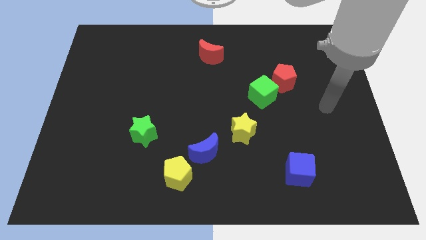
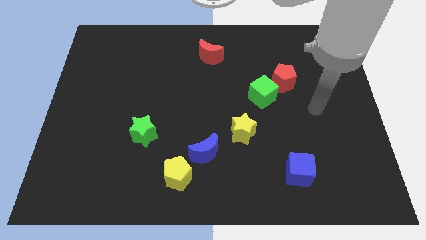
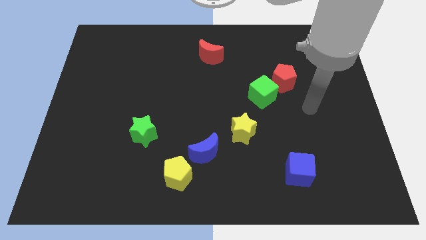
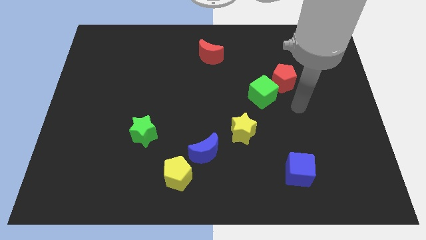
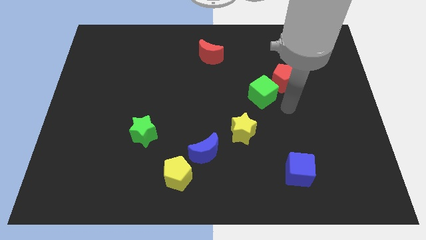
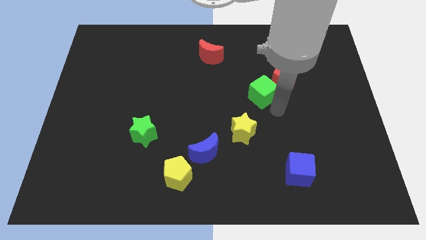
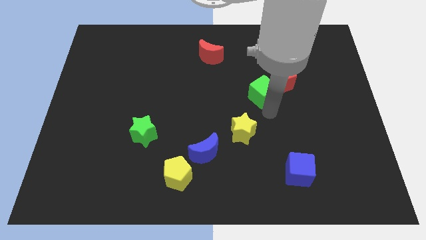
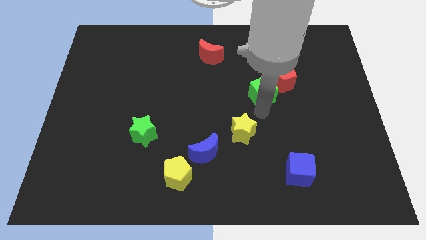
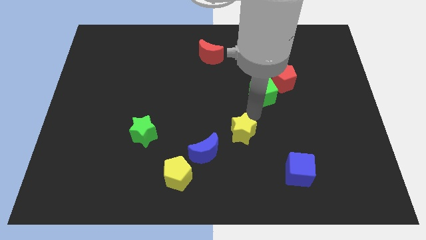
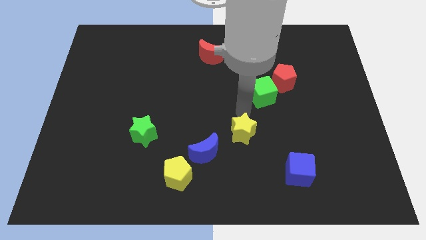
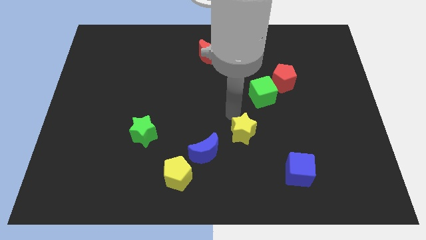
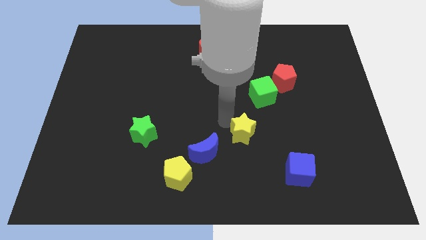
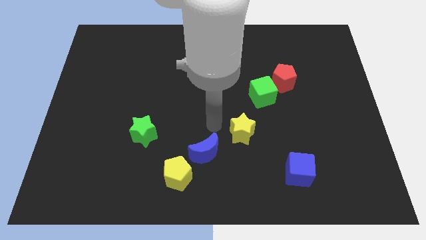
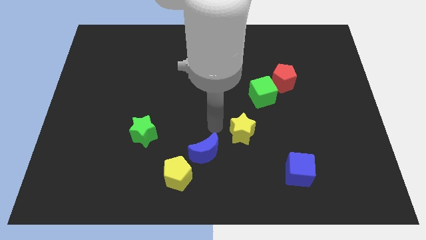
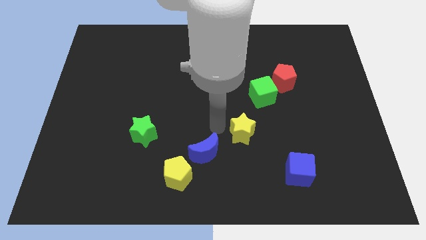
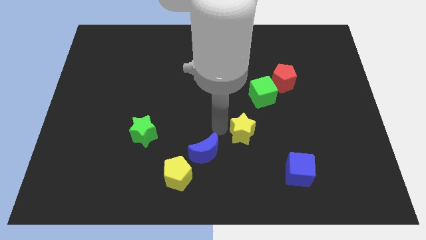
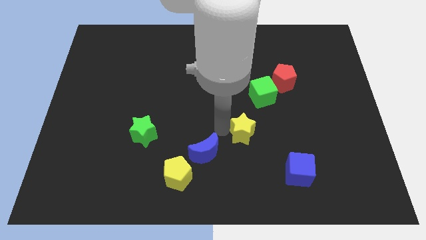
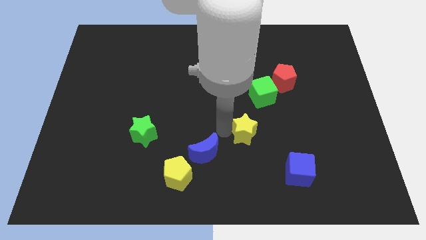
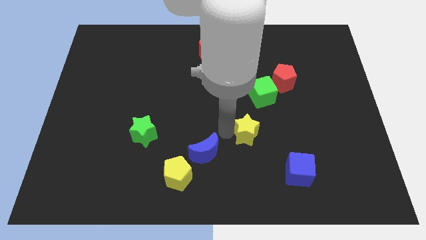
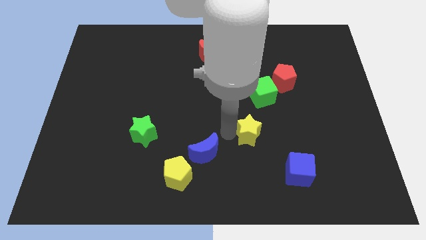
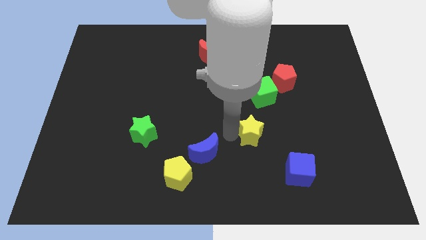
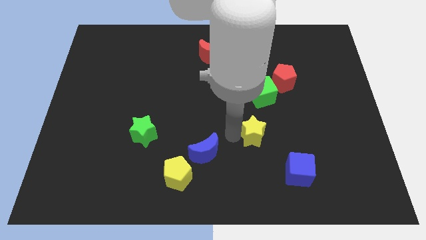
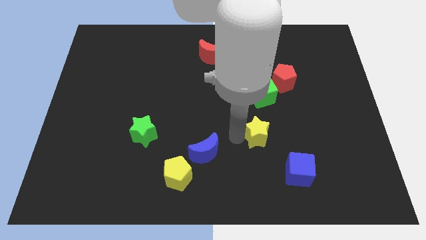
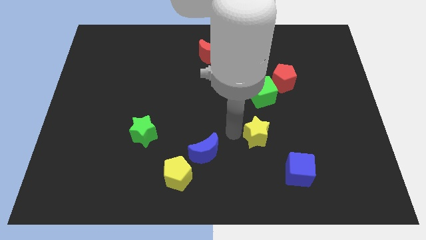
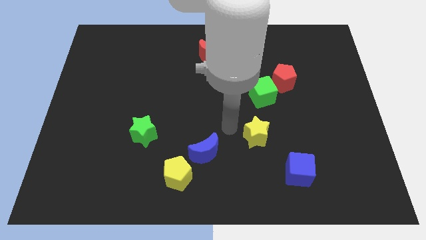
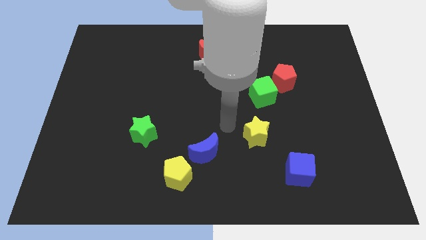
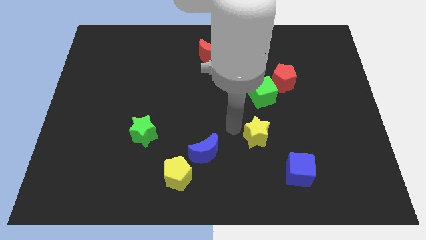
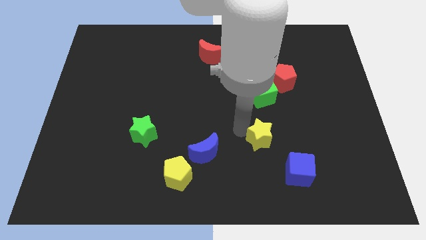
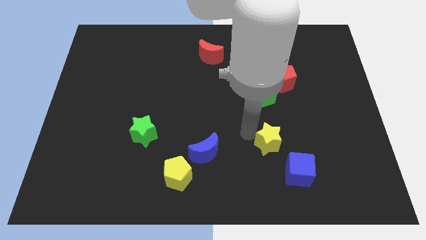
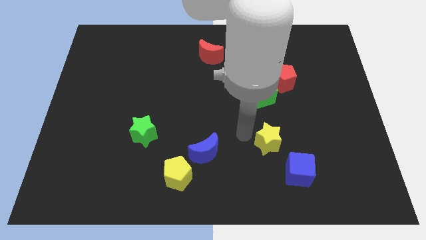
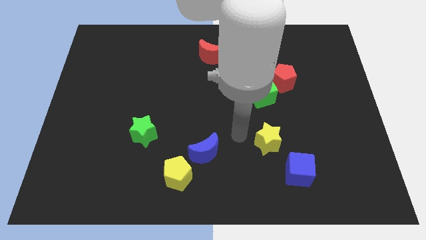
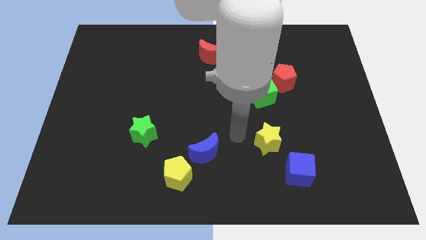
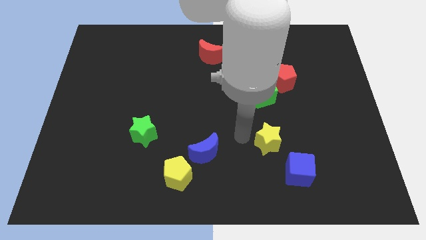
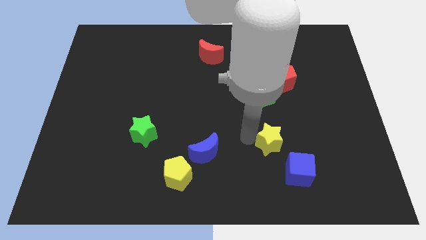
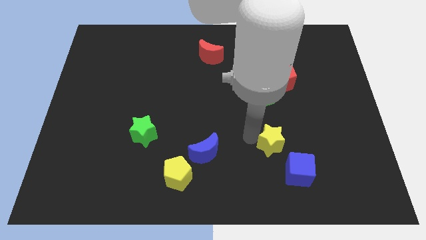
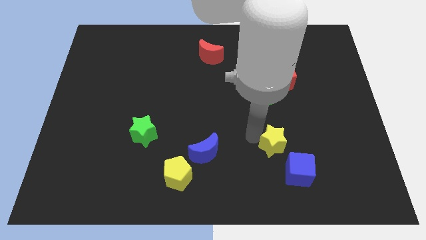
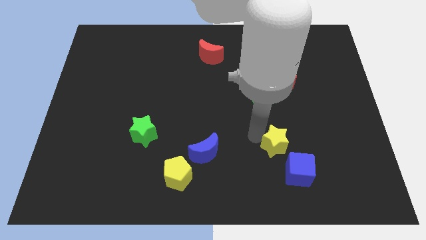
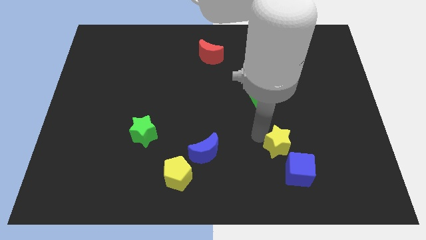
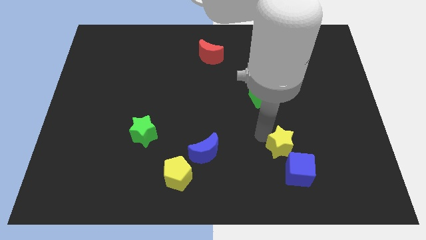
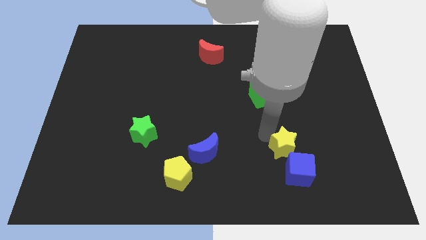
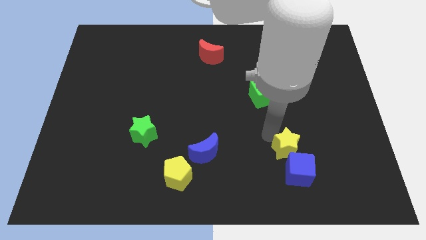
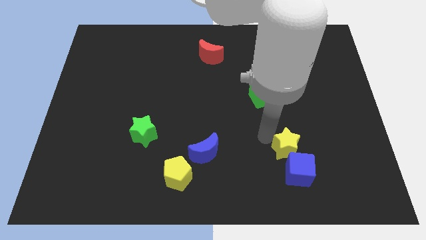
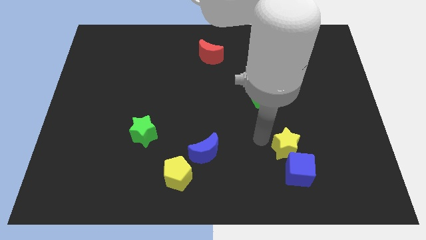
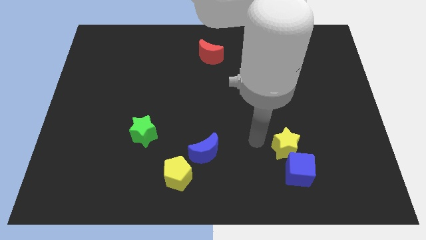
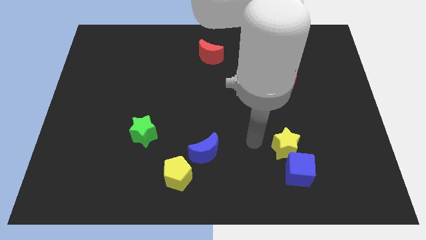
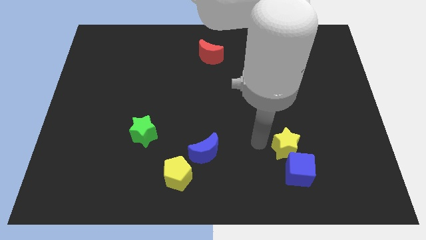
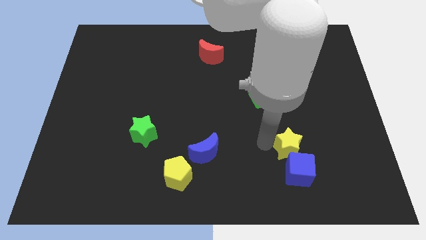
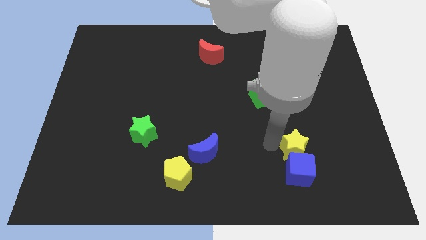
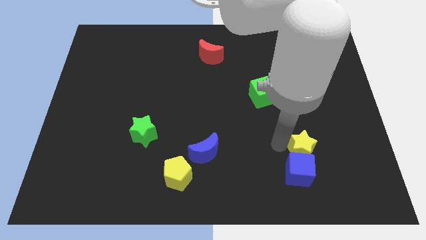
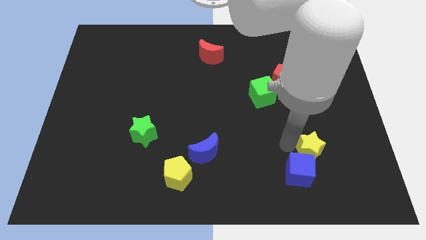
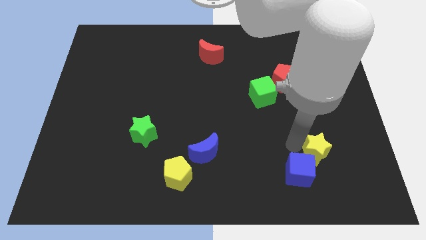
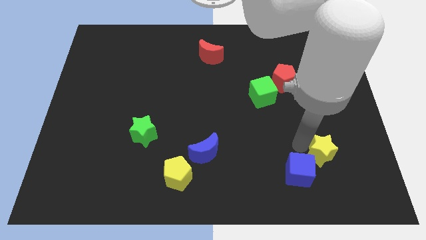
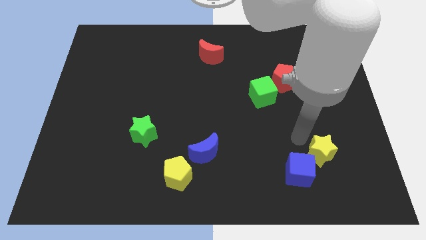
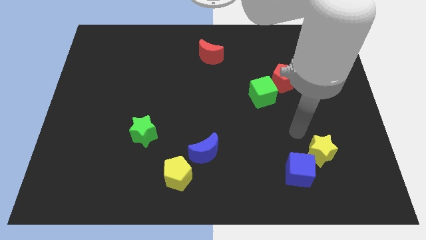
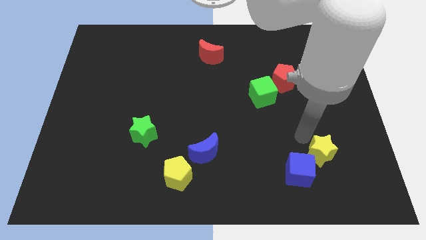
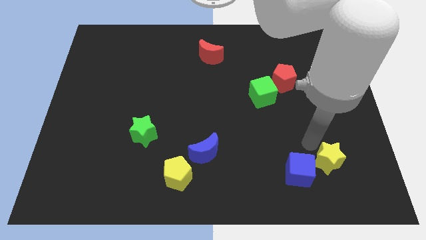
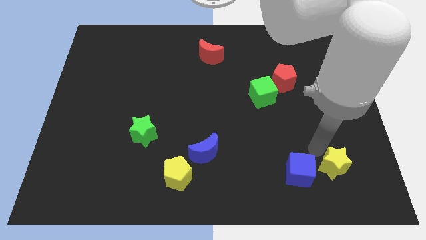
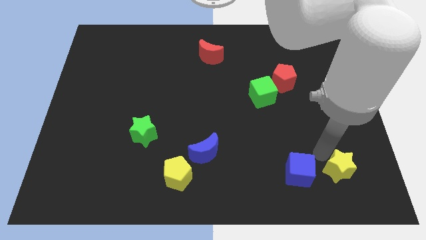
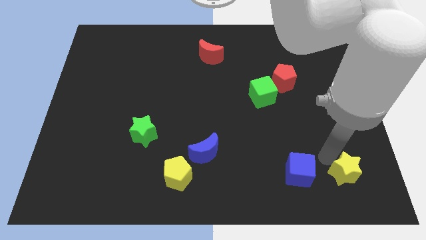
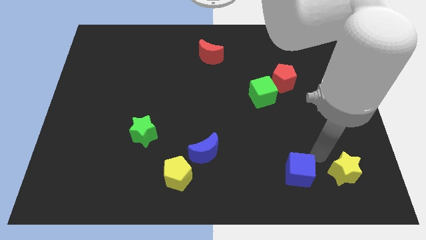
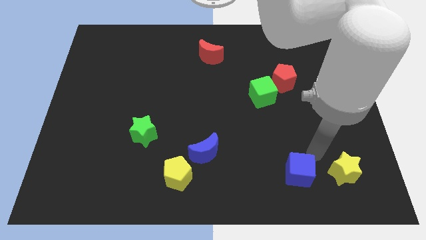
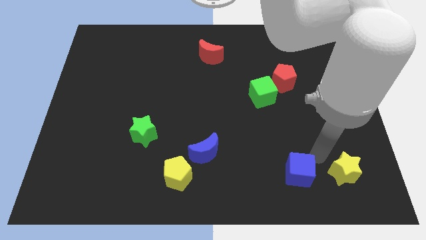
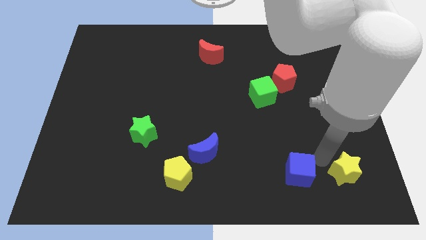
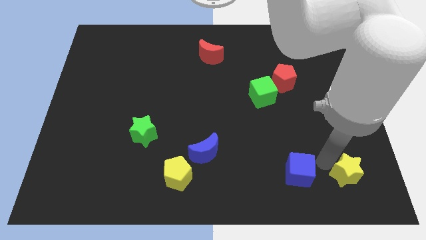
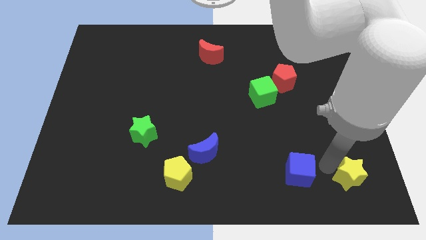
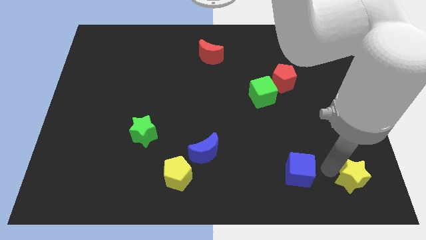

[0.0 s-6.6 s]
slide the yellow star to the bottom right
